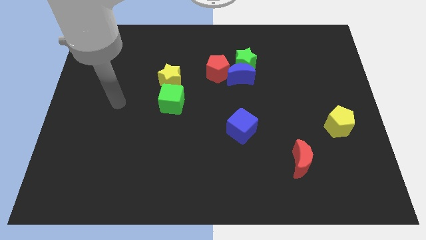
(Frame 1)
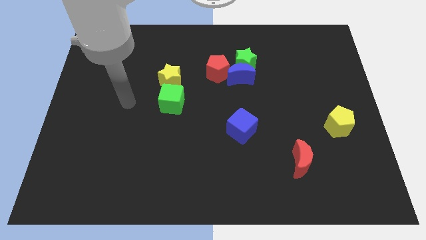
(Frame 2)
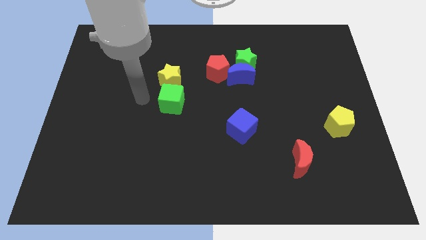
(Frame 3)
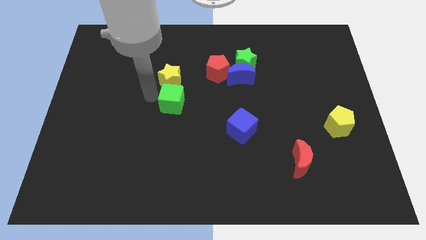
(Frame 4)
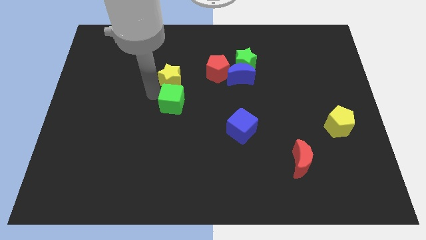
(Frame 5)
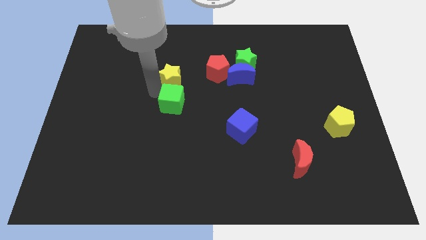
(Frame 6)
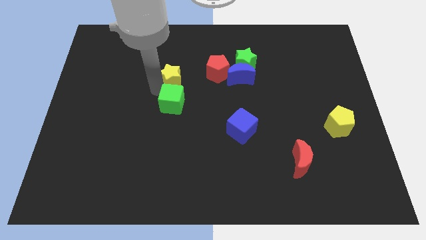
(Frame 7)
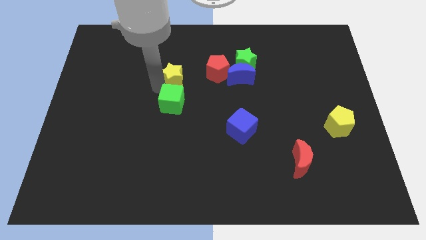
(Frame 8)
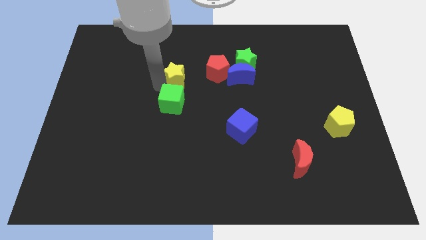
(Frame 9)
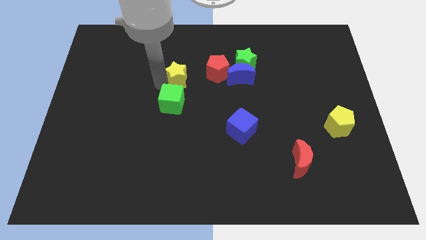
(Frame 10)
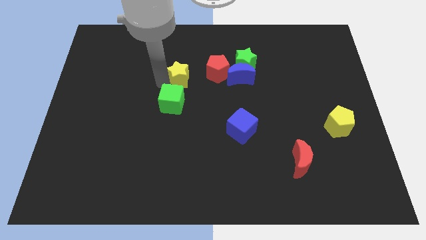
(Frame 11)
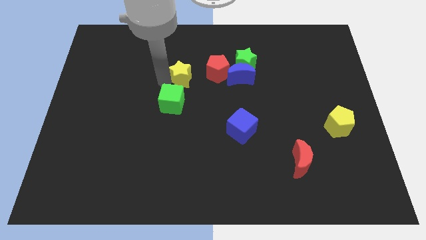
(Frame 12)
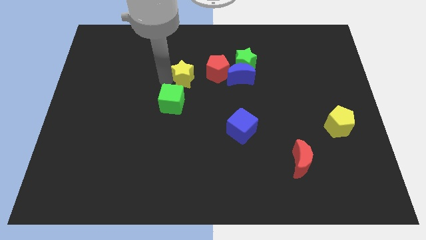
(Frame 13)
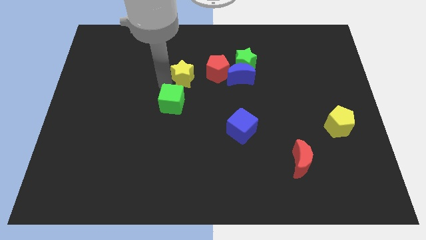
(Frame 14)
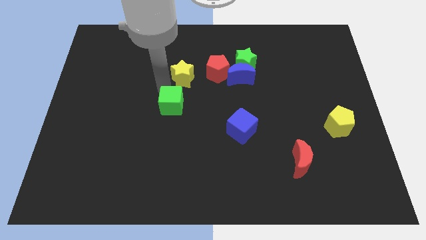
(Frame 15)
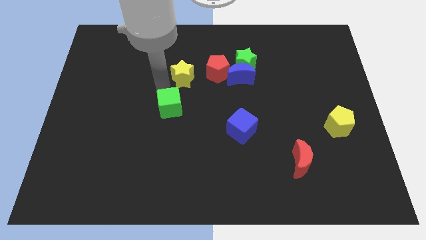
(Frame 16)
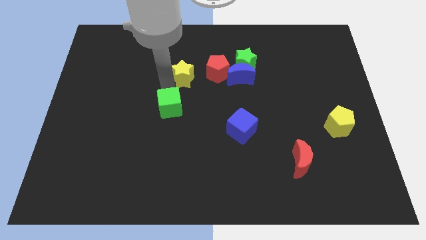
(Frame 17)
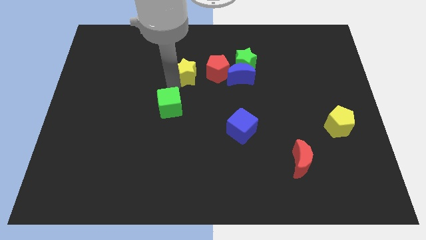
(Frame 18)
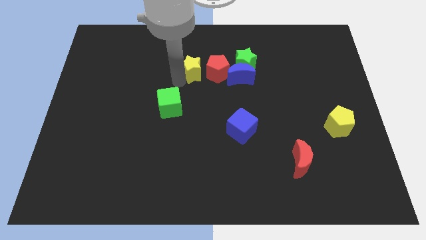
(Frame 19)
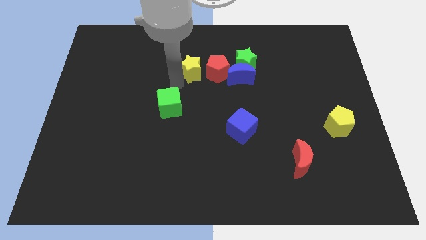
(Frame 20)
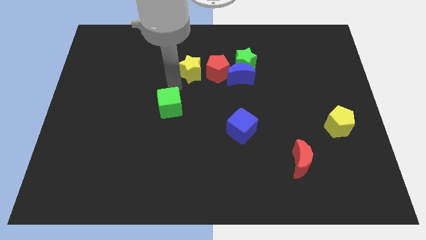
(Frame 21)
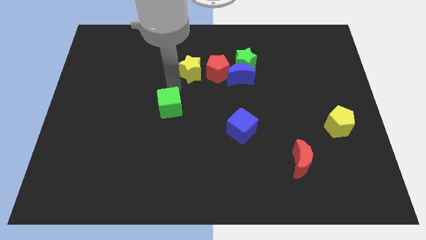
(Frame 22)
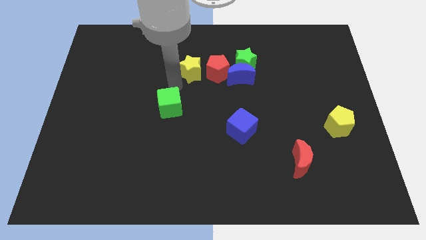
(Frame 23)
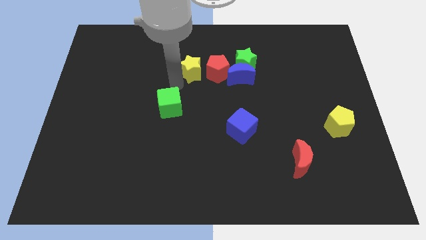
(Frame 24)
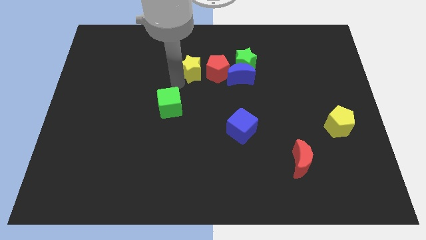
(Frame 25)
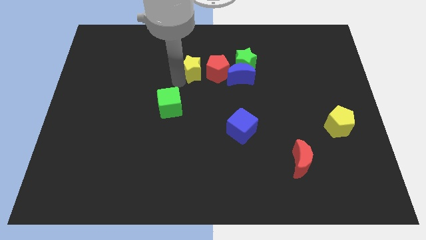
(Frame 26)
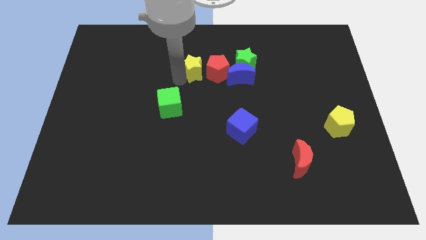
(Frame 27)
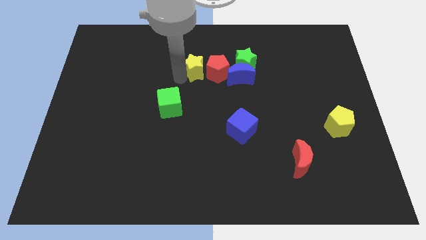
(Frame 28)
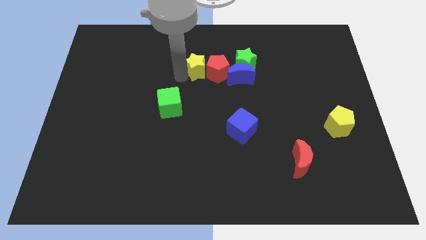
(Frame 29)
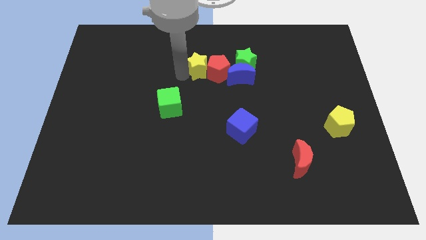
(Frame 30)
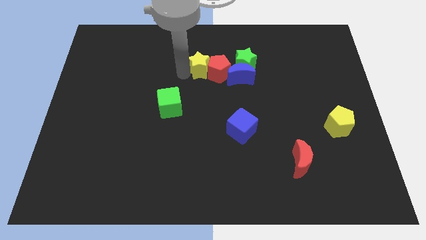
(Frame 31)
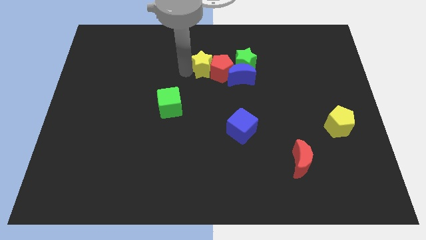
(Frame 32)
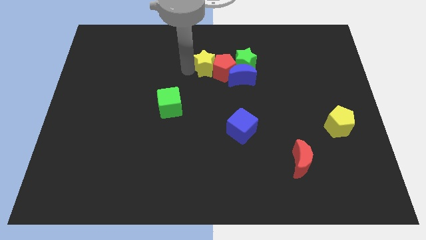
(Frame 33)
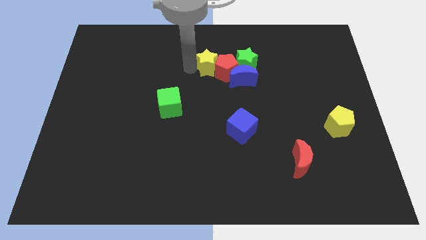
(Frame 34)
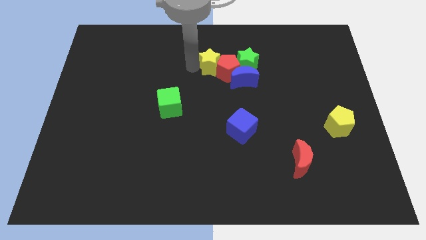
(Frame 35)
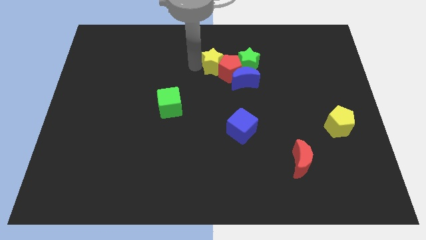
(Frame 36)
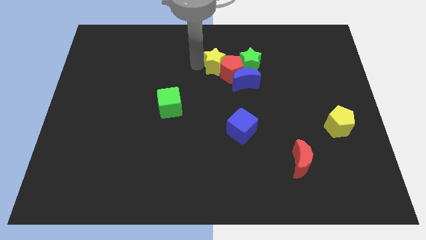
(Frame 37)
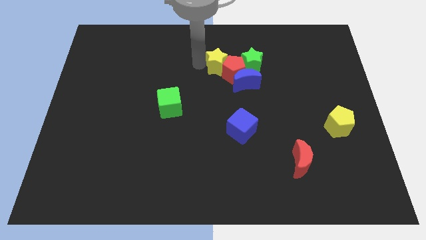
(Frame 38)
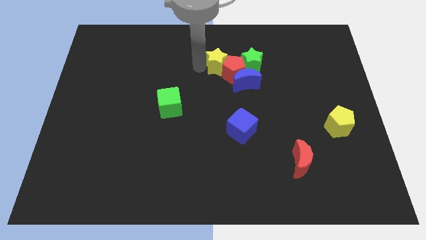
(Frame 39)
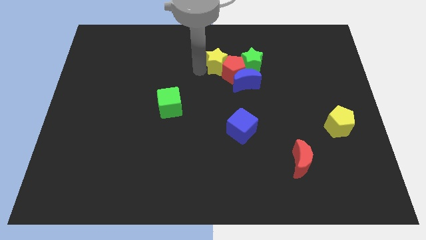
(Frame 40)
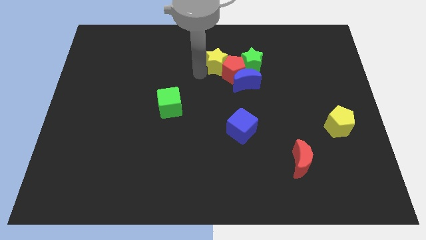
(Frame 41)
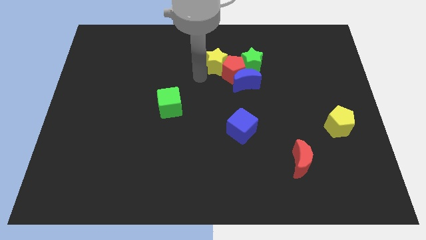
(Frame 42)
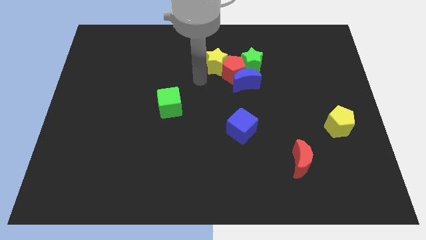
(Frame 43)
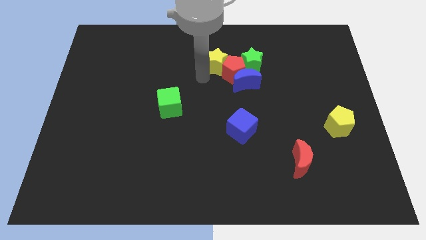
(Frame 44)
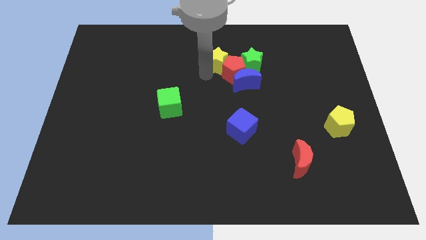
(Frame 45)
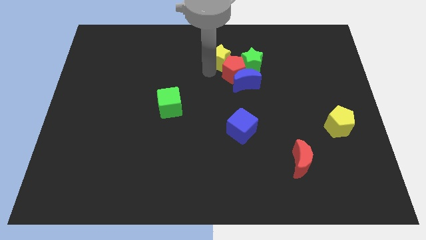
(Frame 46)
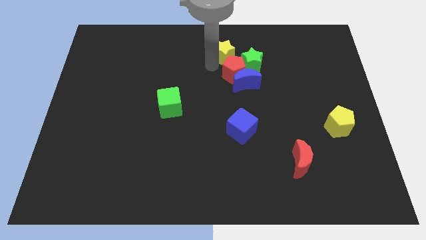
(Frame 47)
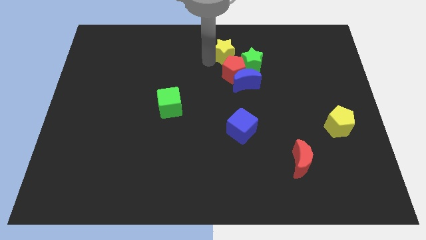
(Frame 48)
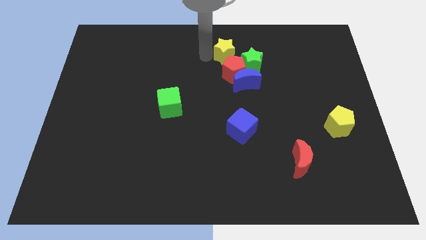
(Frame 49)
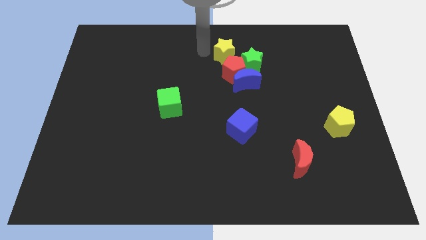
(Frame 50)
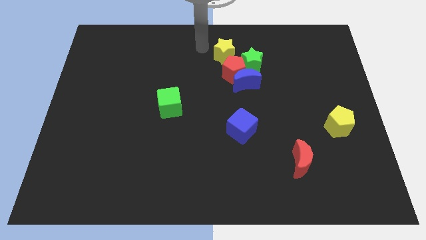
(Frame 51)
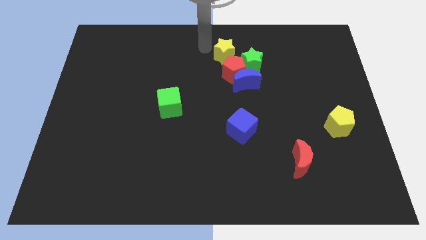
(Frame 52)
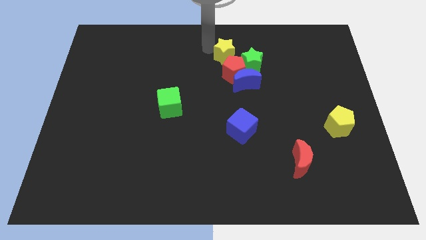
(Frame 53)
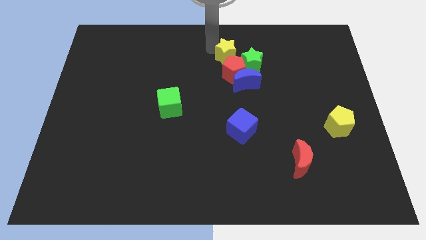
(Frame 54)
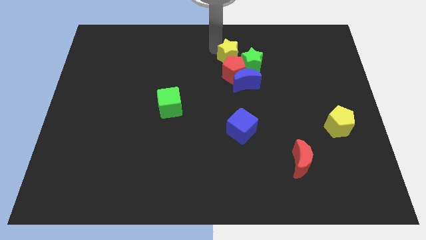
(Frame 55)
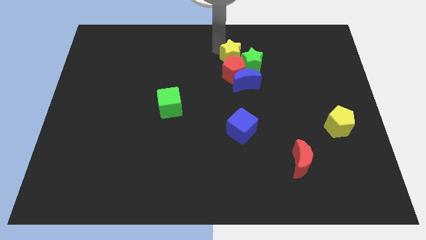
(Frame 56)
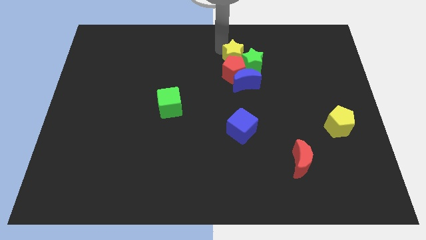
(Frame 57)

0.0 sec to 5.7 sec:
move the yellow star next to the green star

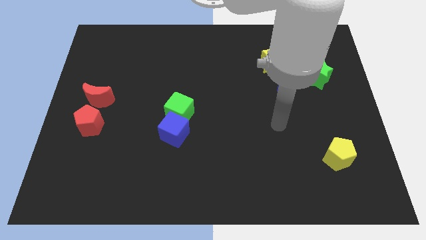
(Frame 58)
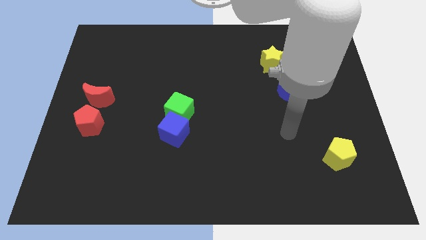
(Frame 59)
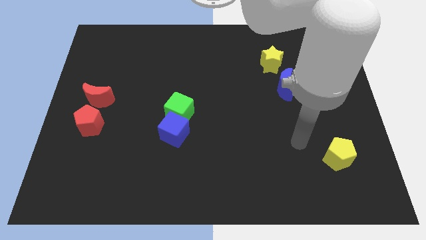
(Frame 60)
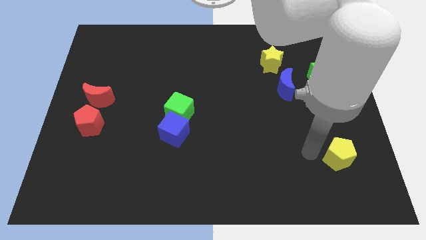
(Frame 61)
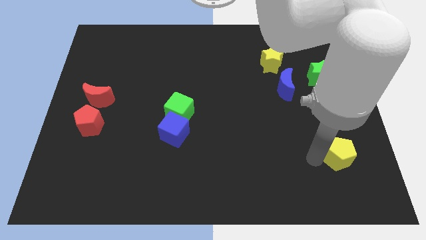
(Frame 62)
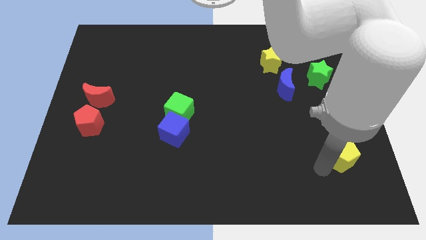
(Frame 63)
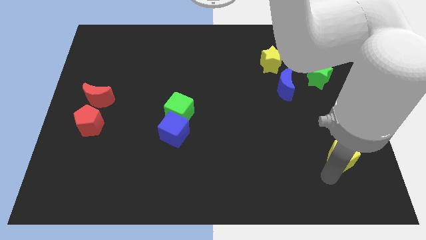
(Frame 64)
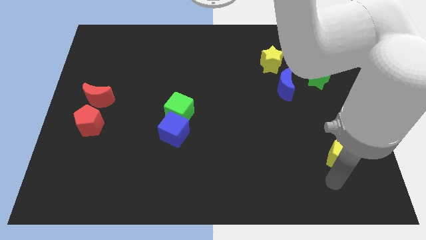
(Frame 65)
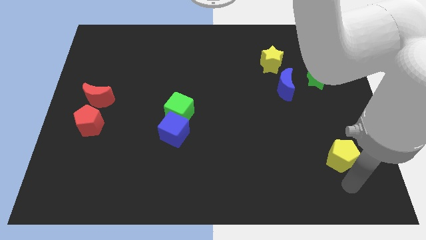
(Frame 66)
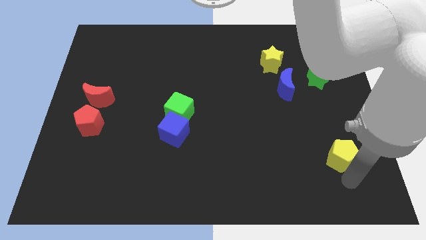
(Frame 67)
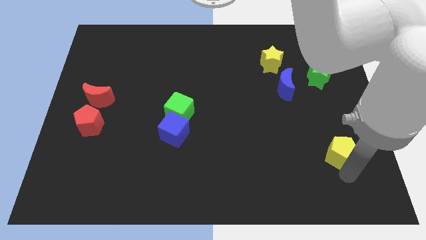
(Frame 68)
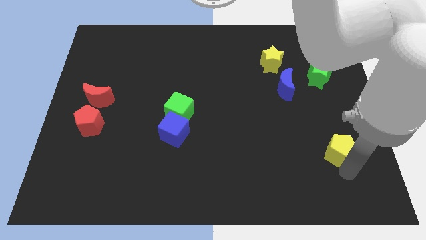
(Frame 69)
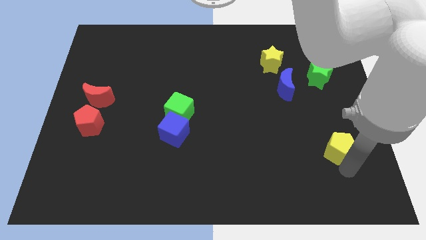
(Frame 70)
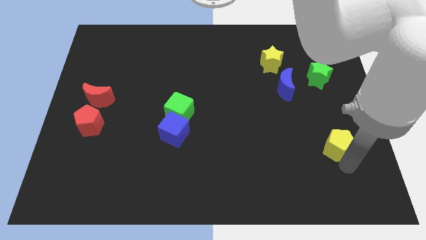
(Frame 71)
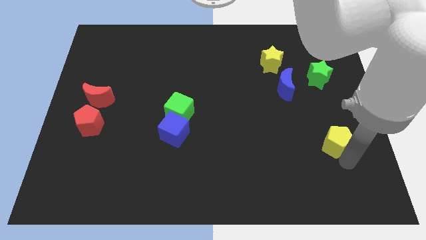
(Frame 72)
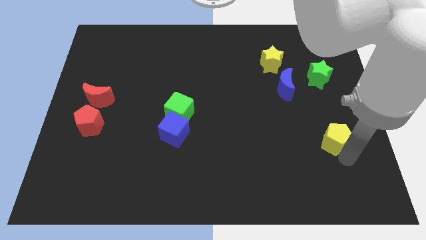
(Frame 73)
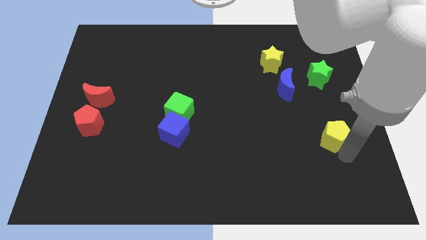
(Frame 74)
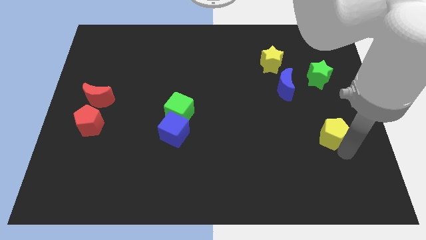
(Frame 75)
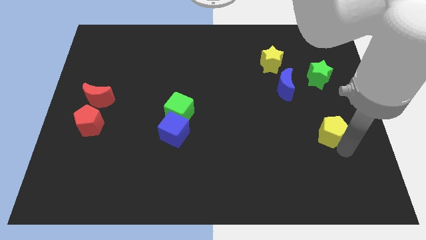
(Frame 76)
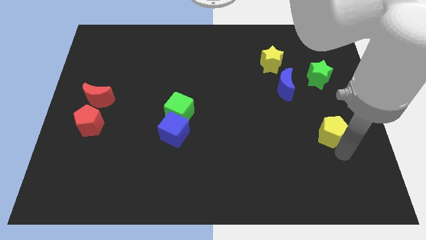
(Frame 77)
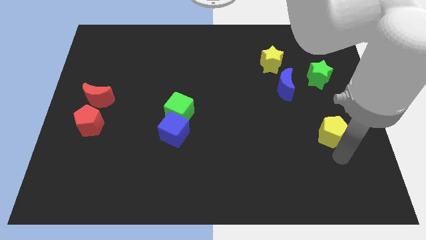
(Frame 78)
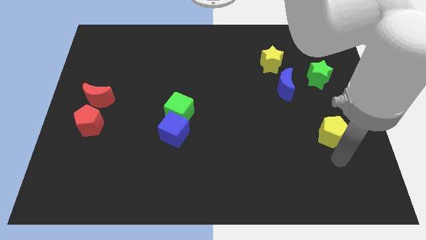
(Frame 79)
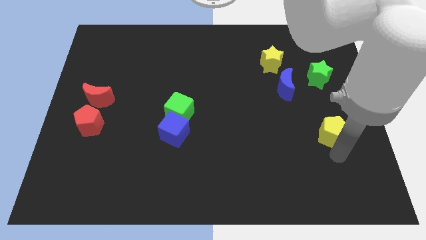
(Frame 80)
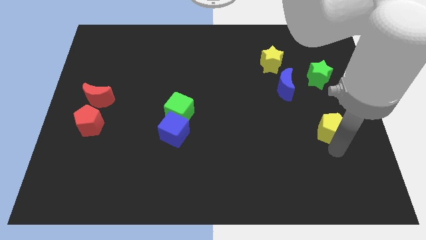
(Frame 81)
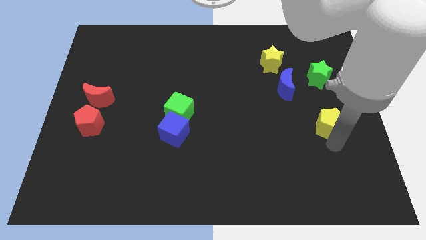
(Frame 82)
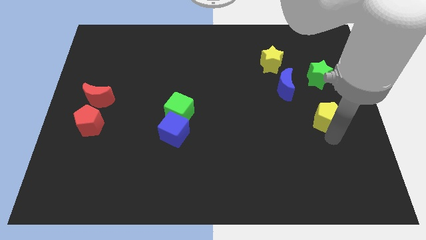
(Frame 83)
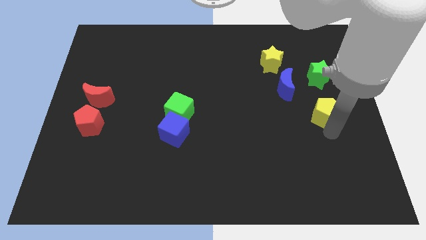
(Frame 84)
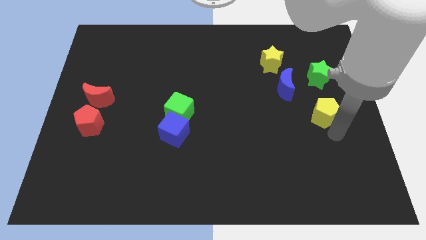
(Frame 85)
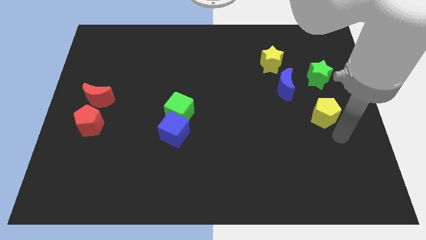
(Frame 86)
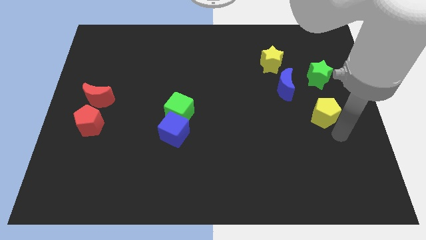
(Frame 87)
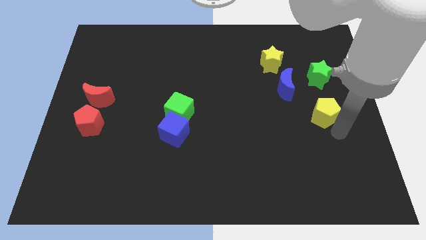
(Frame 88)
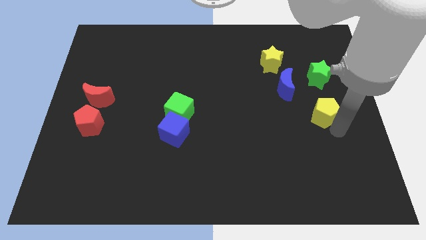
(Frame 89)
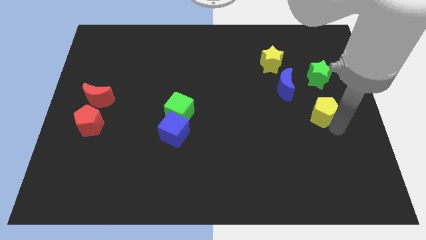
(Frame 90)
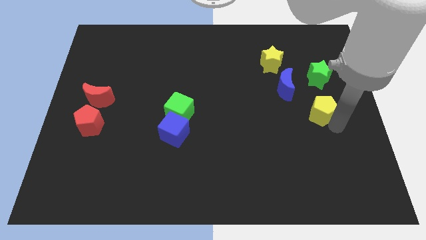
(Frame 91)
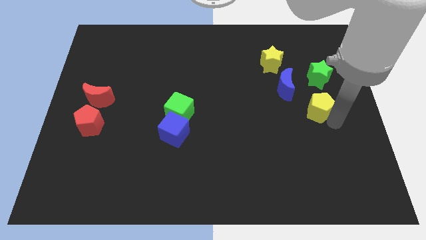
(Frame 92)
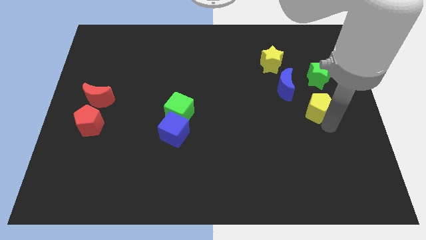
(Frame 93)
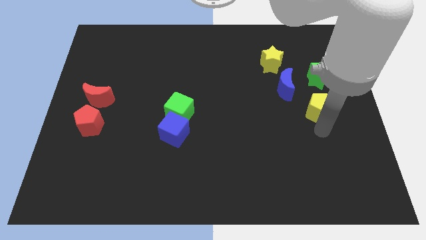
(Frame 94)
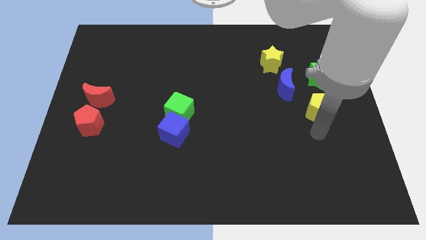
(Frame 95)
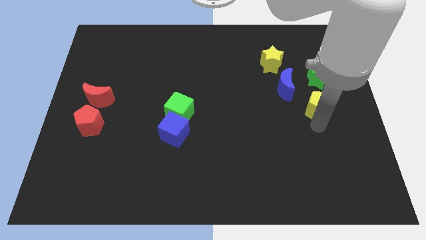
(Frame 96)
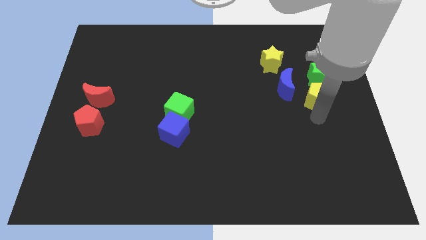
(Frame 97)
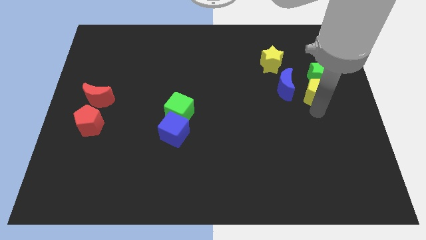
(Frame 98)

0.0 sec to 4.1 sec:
push the yellow pentagon next to the green star
